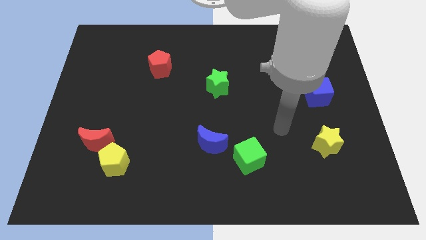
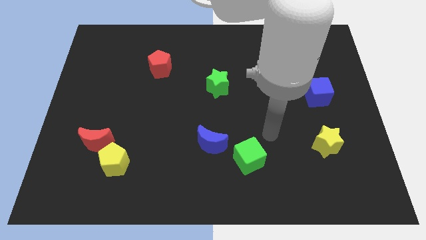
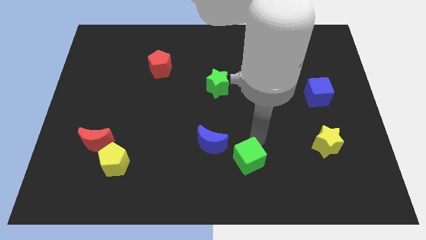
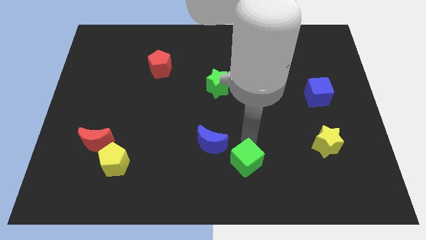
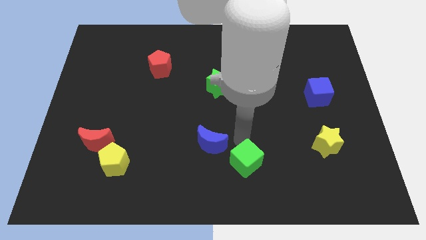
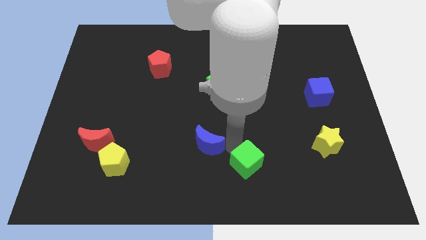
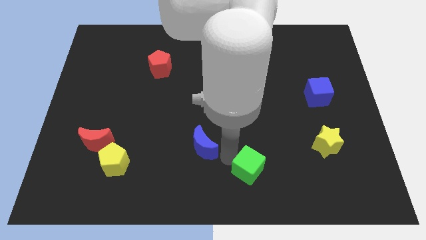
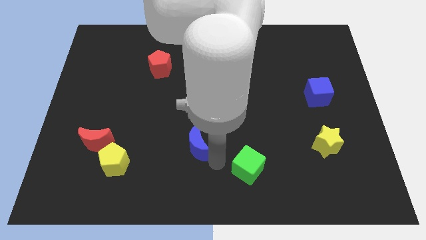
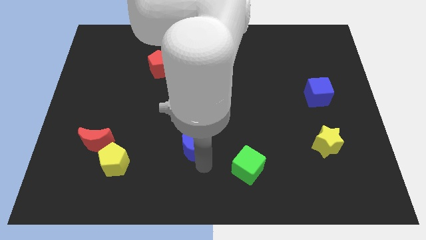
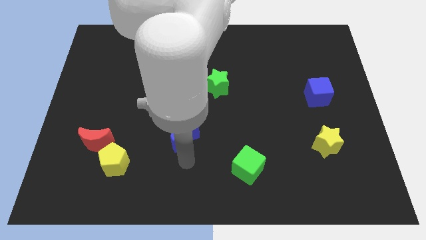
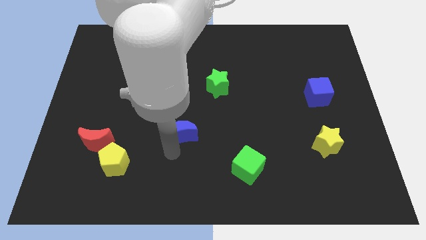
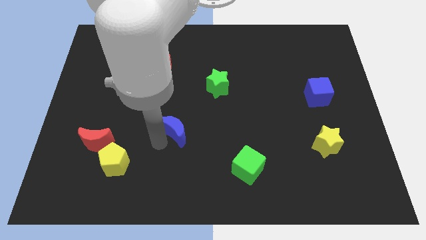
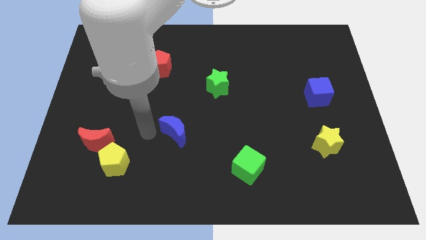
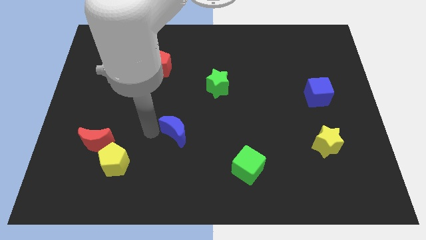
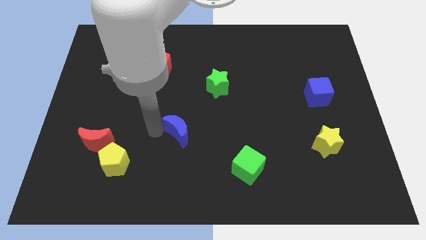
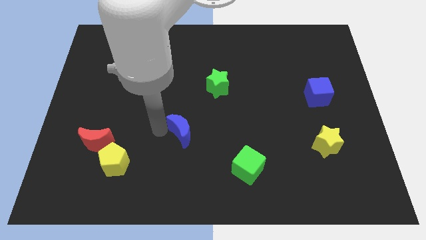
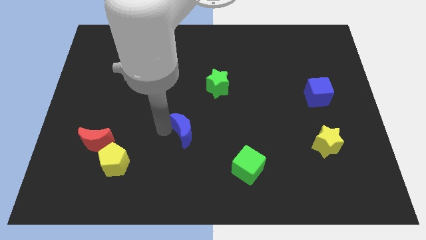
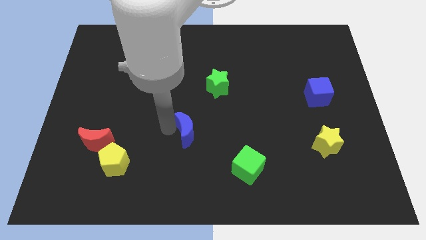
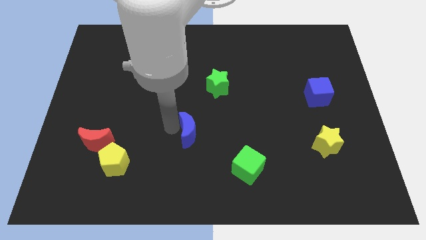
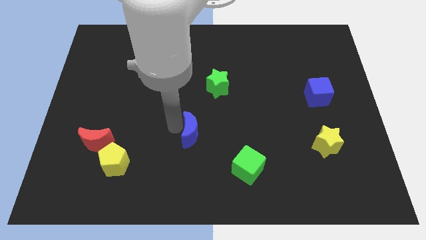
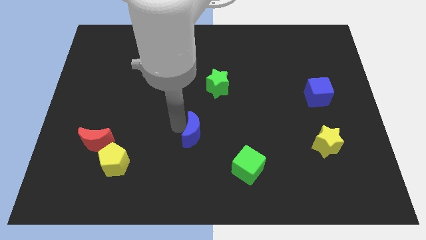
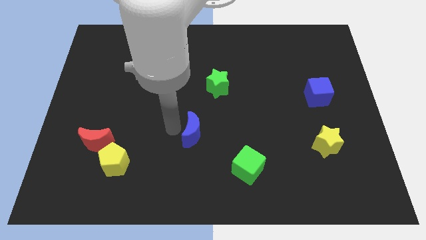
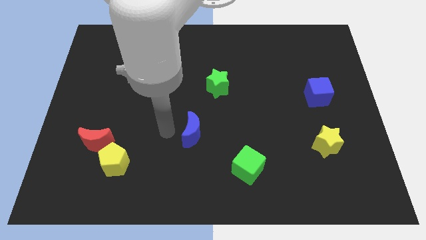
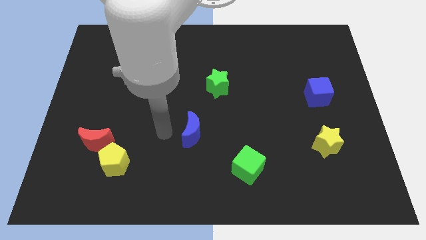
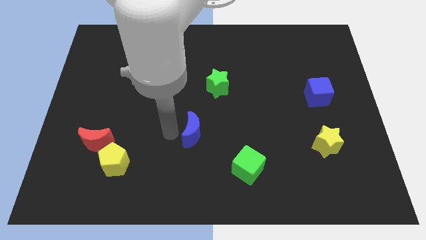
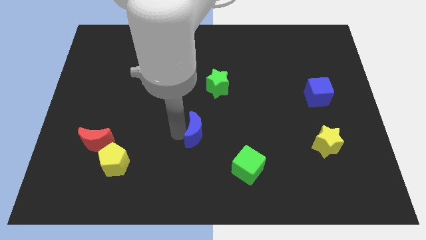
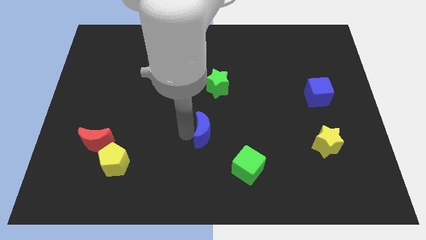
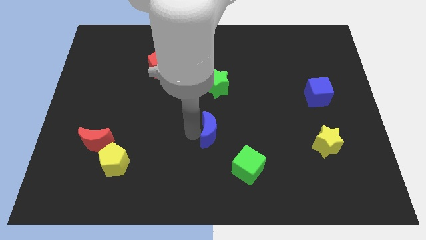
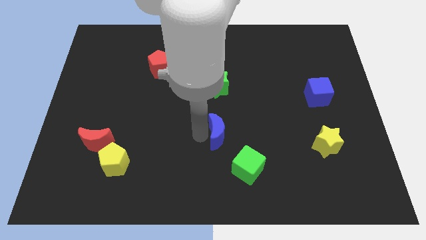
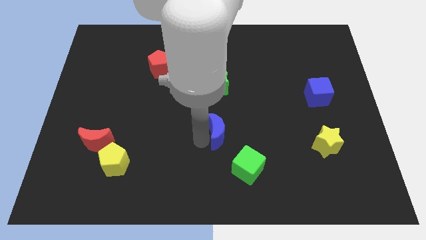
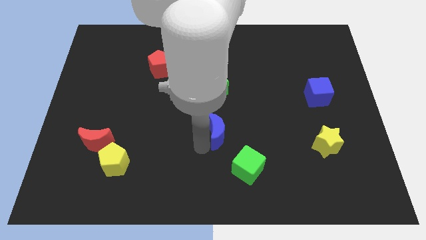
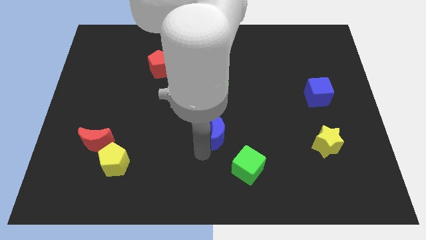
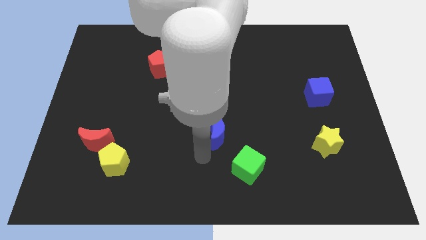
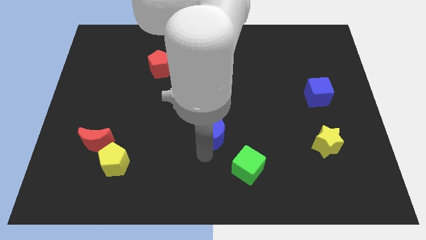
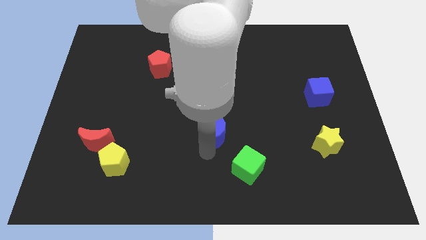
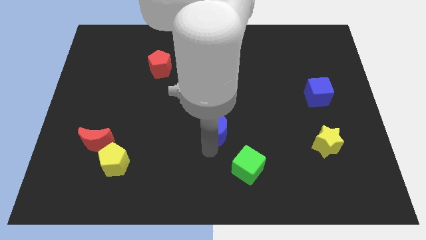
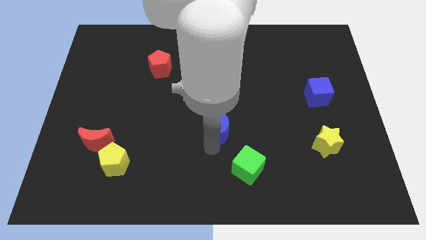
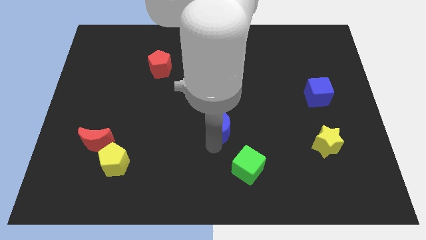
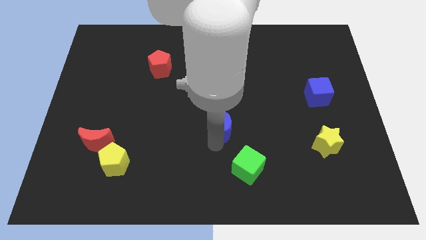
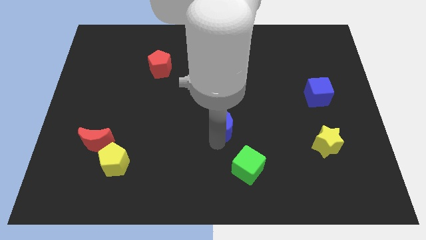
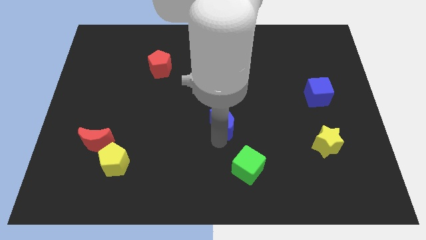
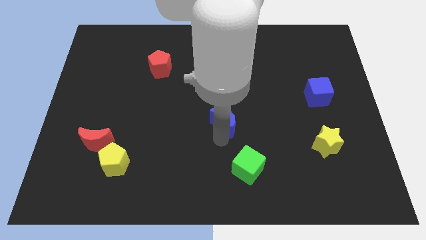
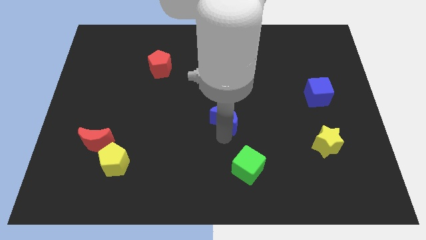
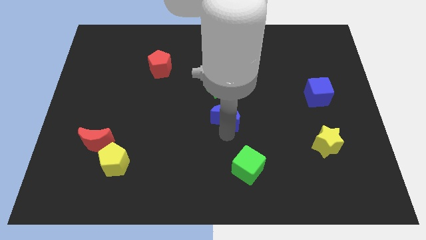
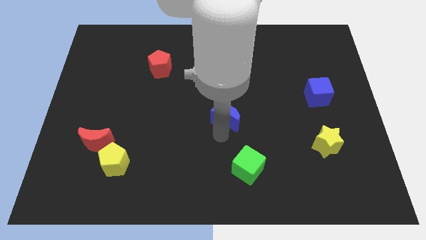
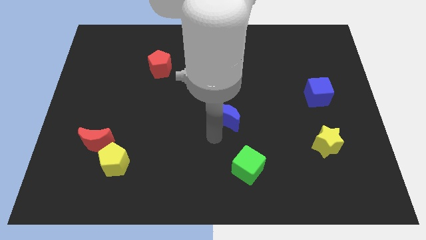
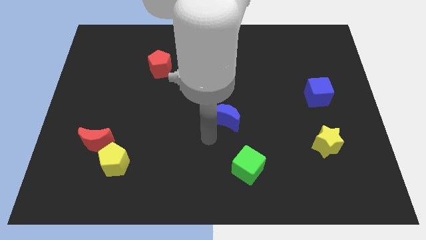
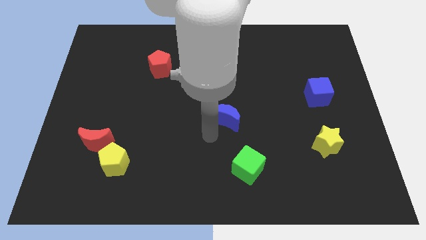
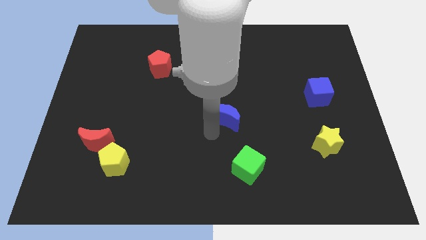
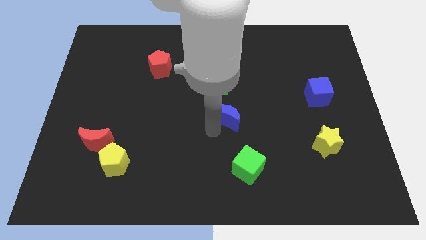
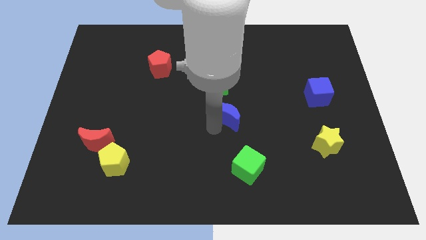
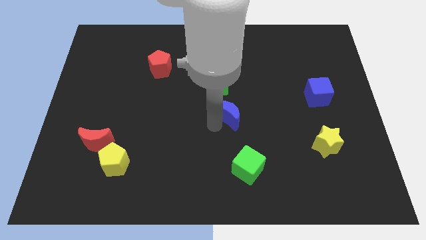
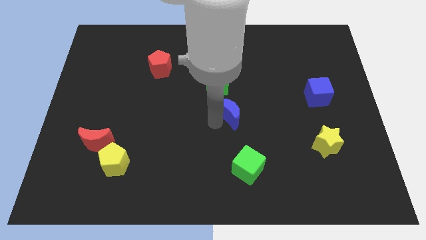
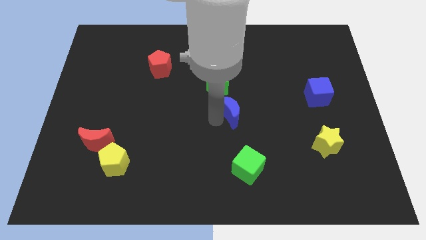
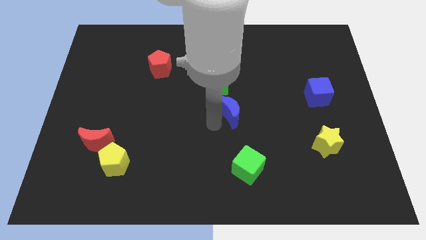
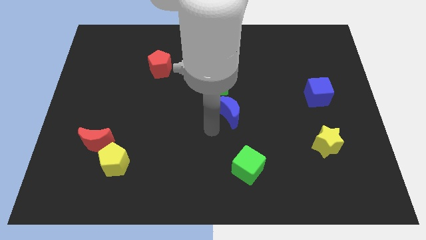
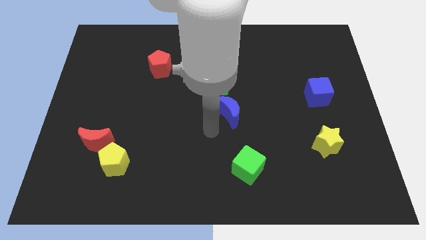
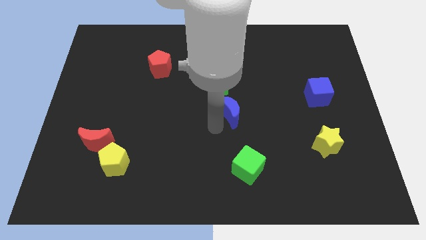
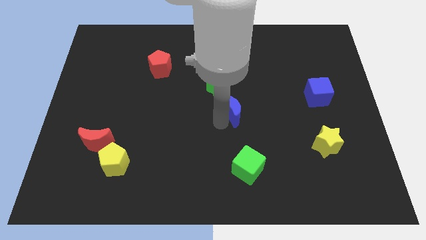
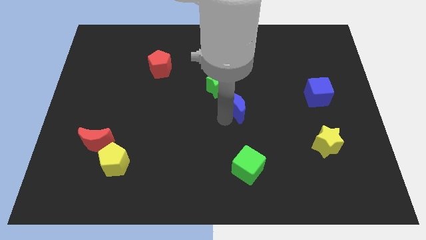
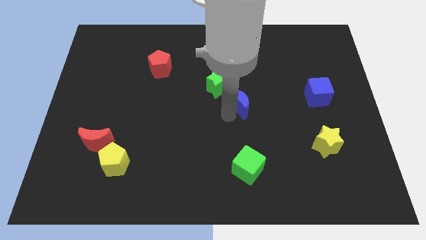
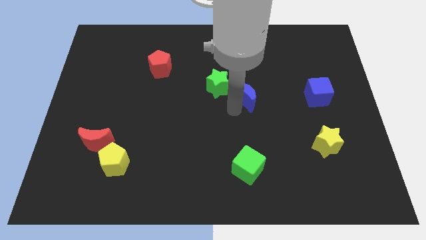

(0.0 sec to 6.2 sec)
move the blue moon to the right of the green star

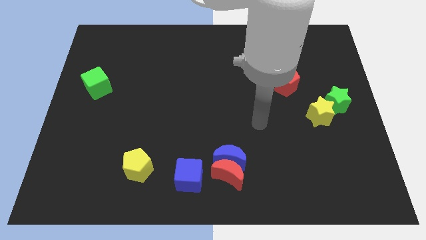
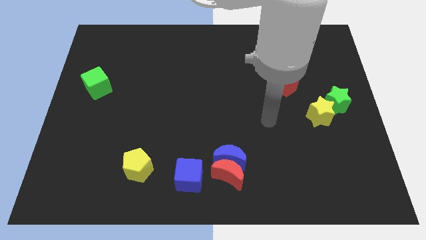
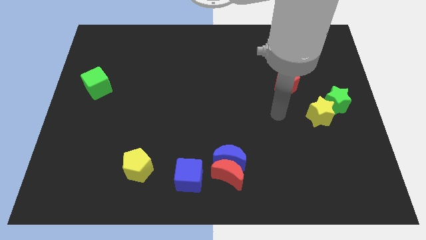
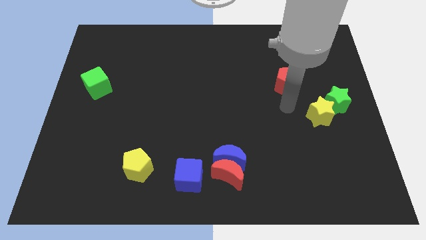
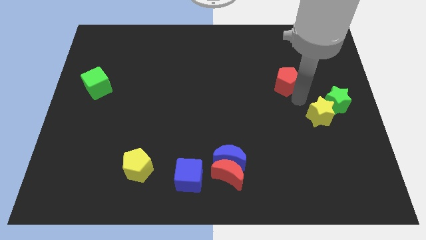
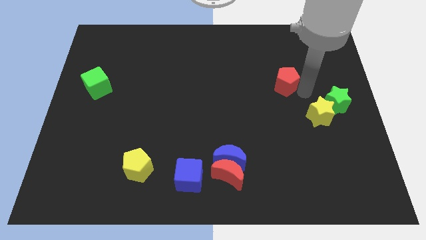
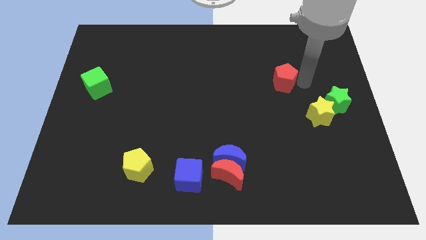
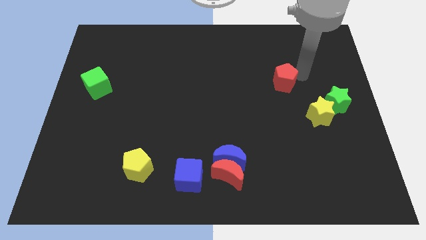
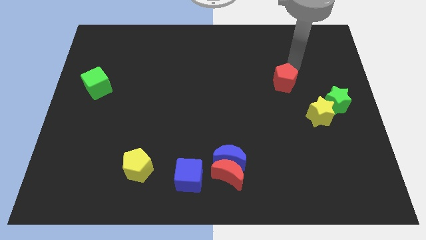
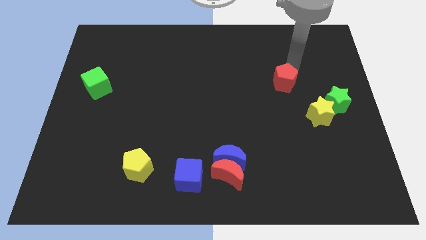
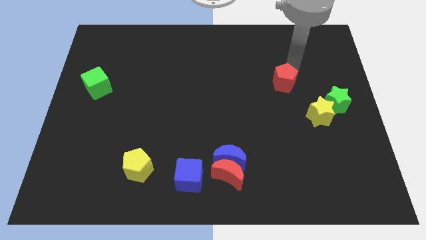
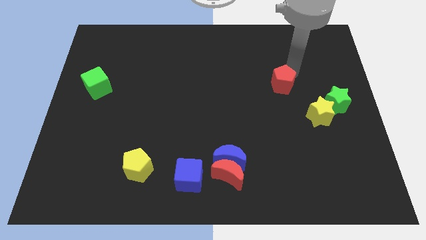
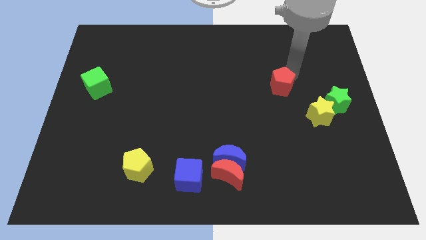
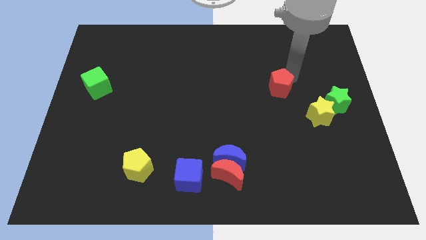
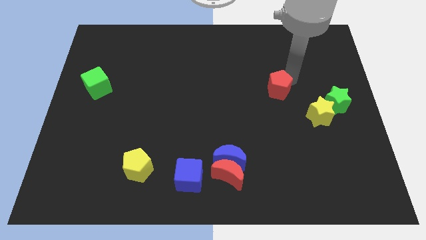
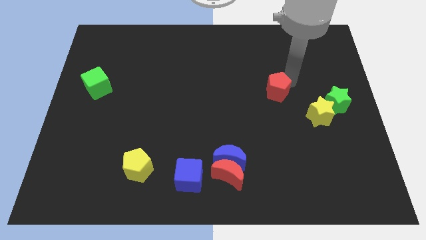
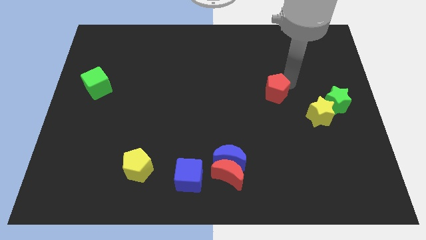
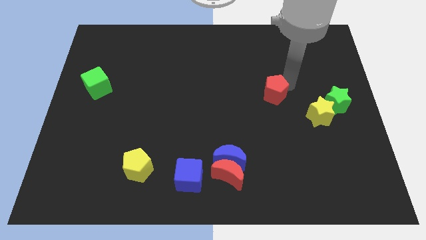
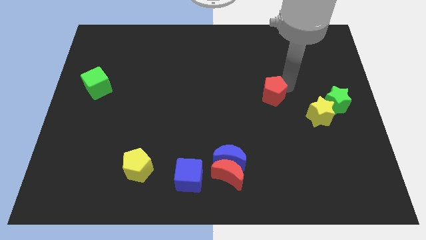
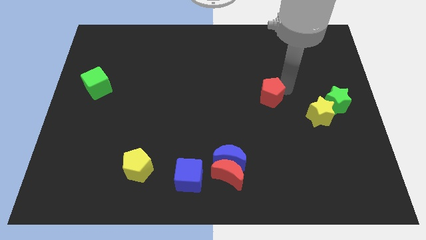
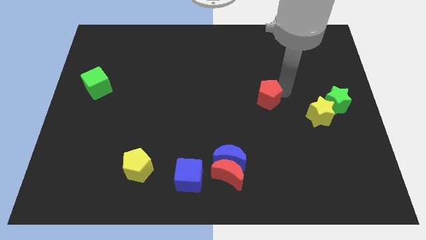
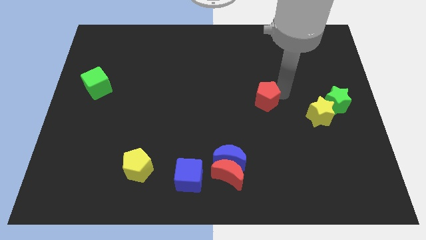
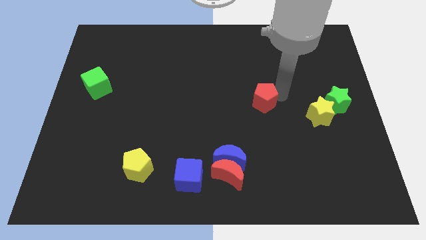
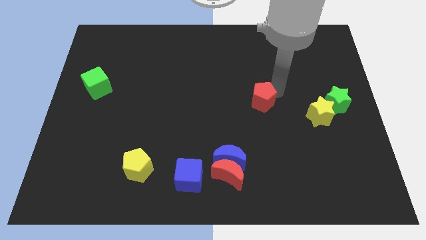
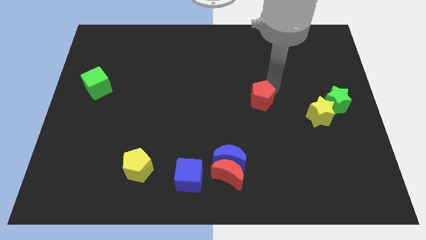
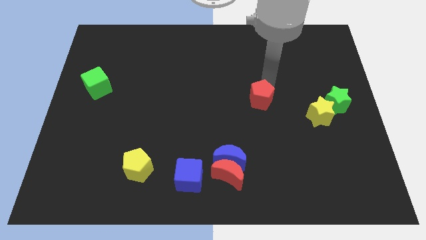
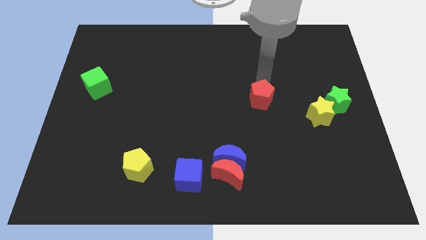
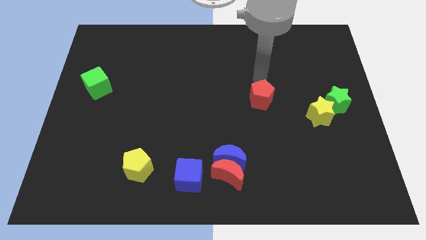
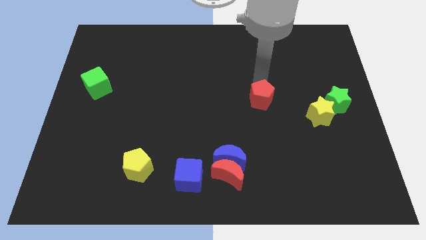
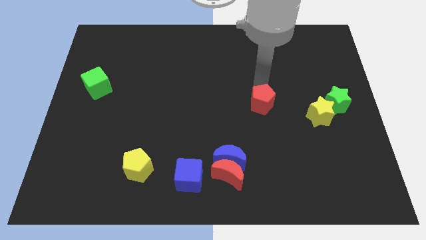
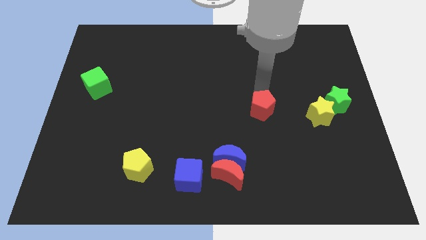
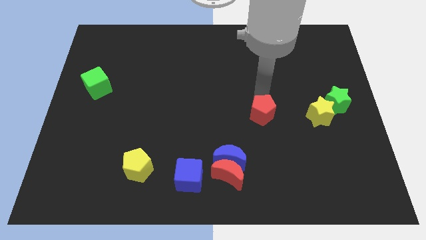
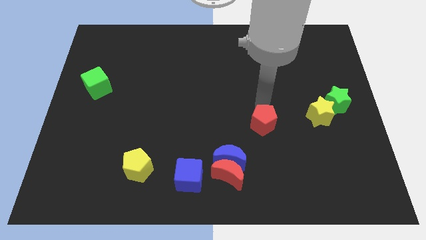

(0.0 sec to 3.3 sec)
slide the red pentagon to the top right of the blue moon
